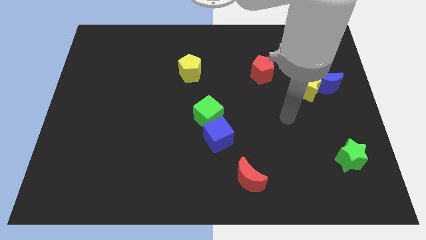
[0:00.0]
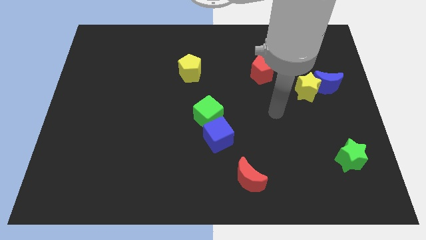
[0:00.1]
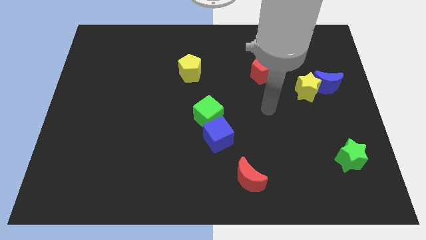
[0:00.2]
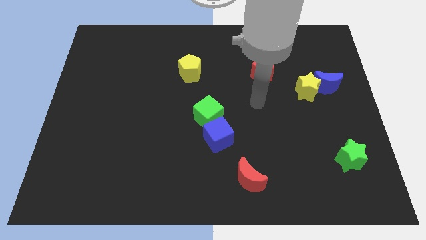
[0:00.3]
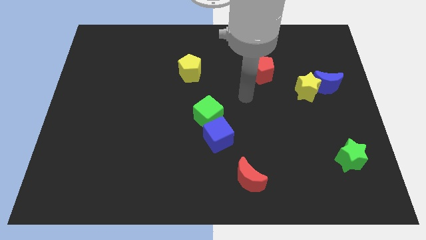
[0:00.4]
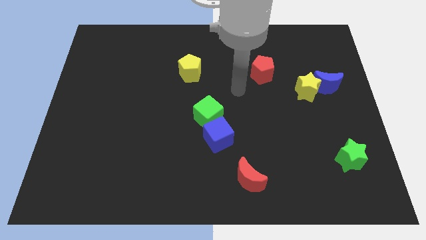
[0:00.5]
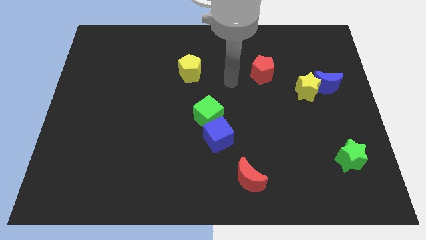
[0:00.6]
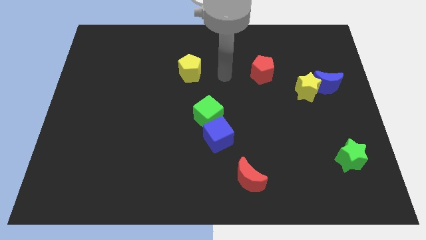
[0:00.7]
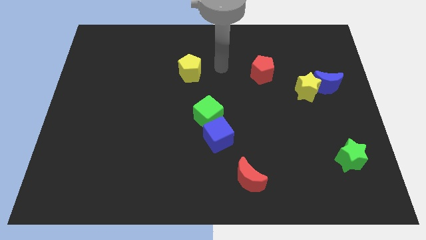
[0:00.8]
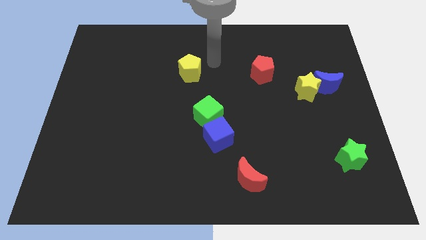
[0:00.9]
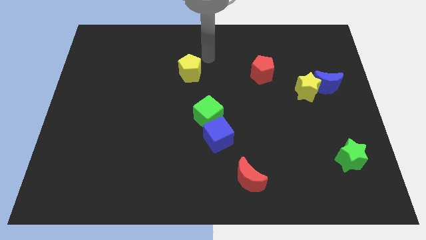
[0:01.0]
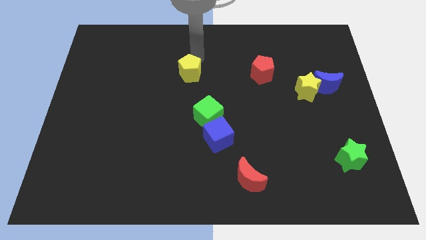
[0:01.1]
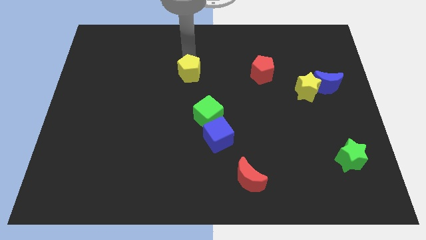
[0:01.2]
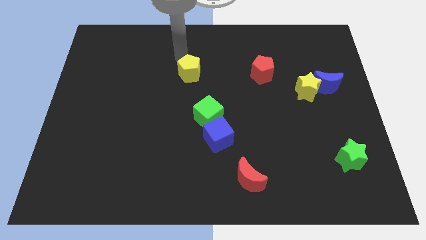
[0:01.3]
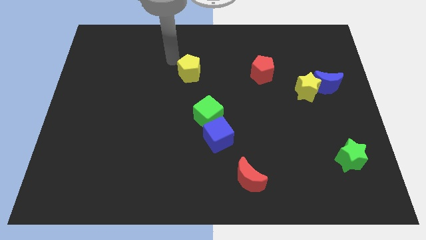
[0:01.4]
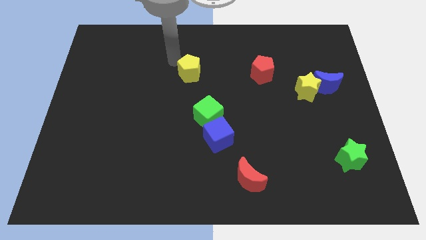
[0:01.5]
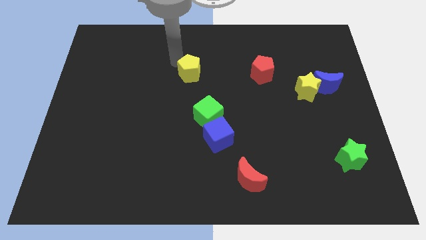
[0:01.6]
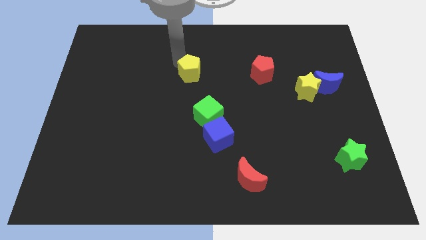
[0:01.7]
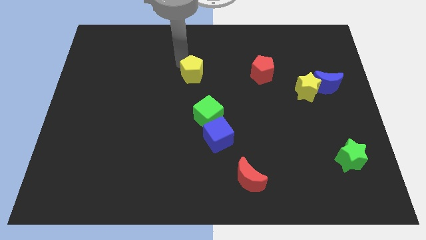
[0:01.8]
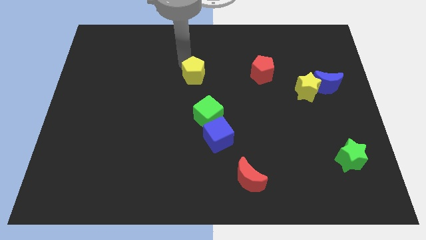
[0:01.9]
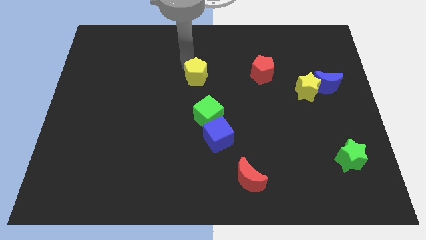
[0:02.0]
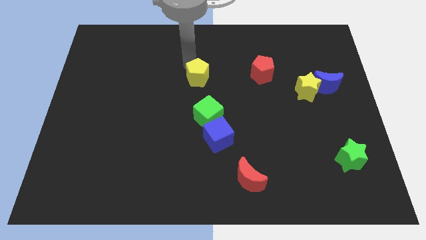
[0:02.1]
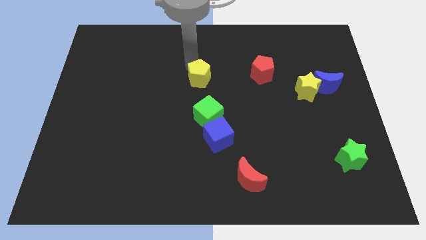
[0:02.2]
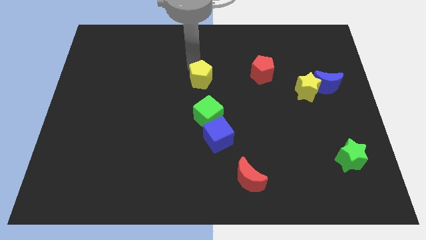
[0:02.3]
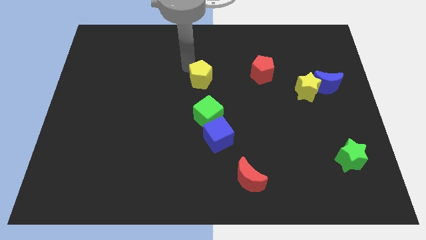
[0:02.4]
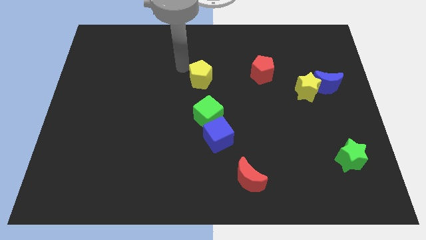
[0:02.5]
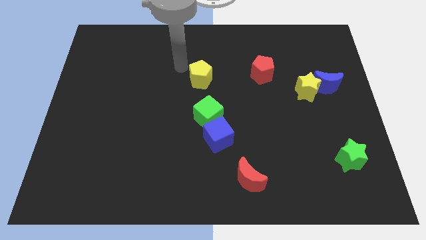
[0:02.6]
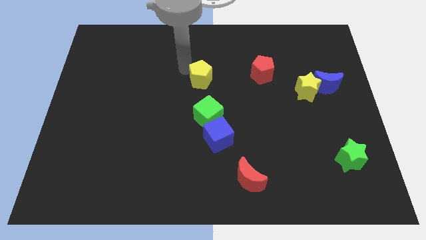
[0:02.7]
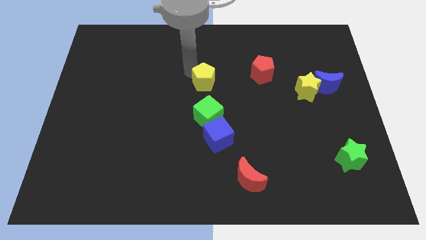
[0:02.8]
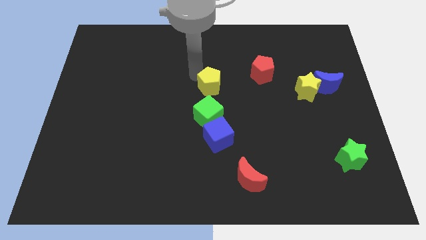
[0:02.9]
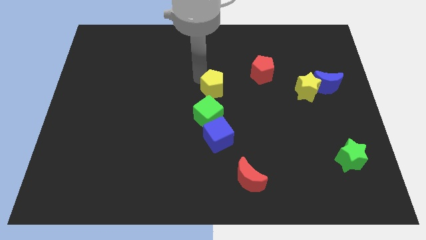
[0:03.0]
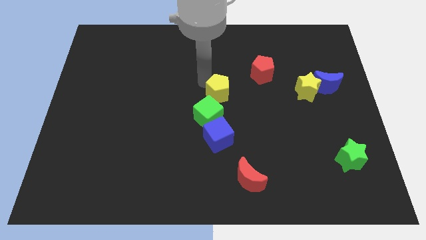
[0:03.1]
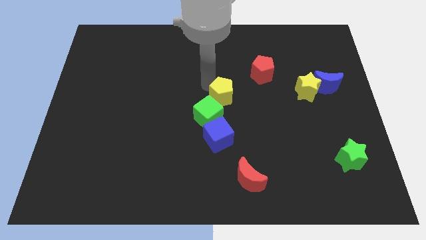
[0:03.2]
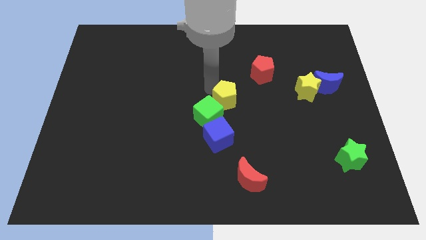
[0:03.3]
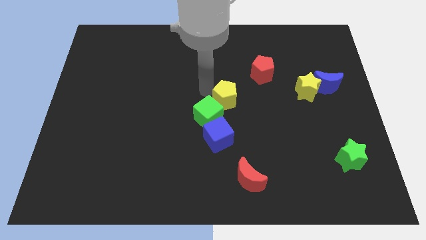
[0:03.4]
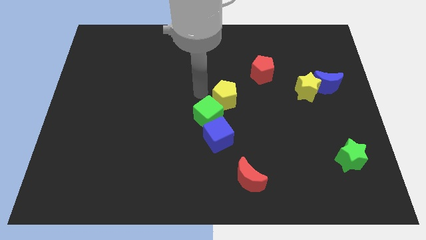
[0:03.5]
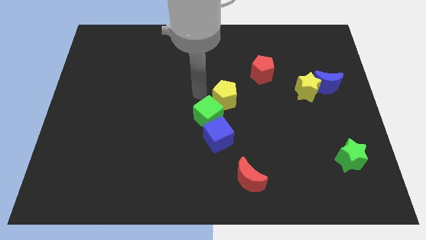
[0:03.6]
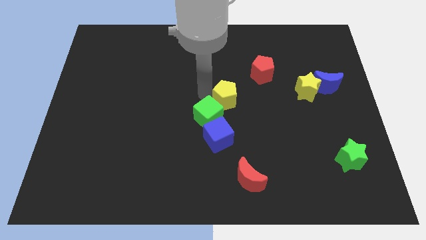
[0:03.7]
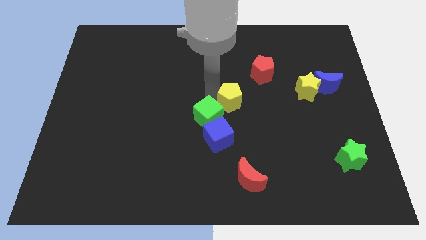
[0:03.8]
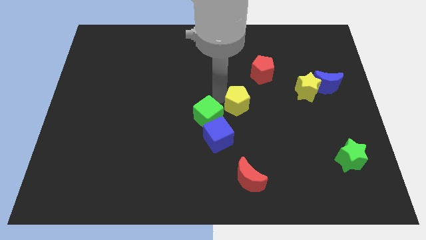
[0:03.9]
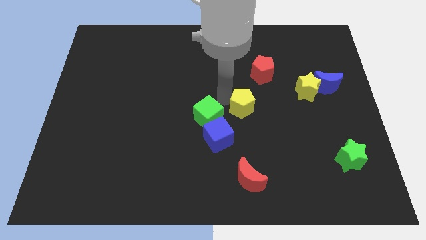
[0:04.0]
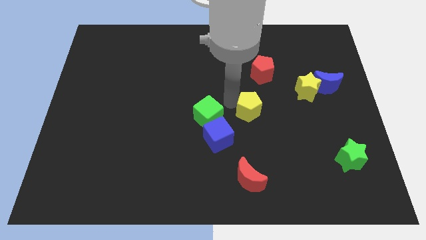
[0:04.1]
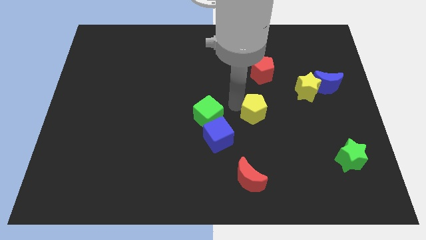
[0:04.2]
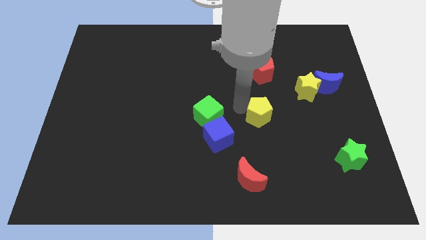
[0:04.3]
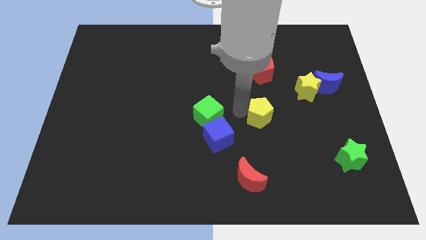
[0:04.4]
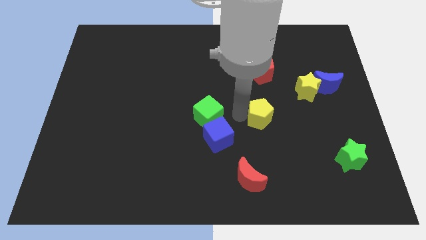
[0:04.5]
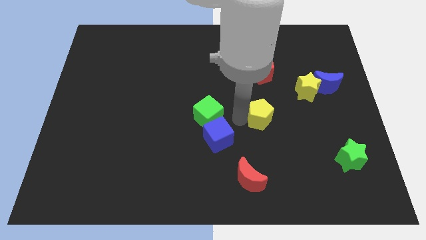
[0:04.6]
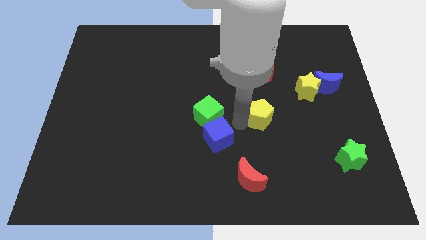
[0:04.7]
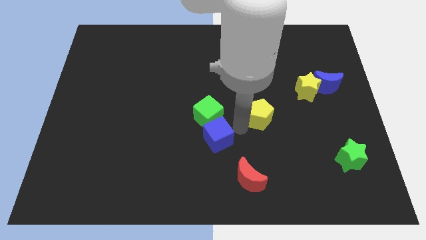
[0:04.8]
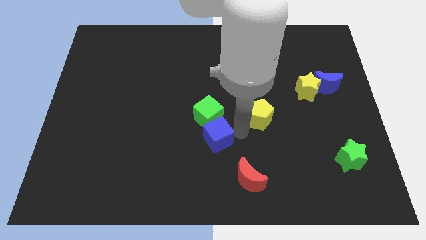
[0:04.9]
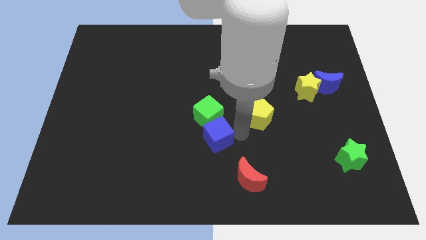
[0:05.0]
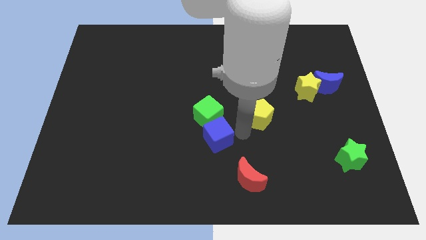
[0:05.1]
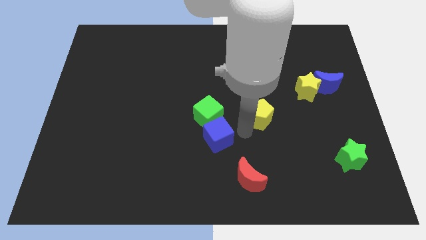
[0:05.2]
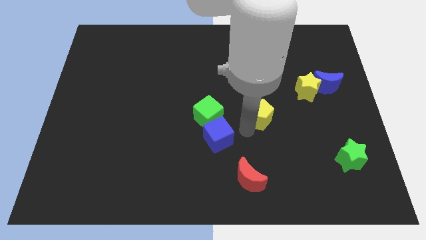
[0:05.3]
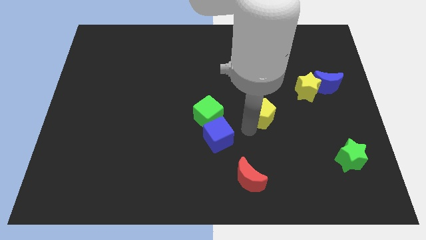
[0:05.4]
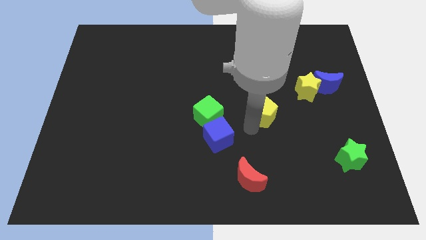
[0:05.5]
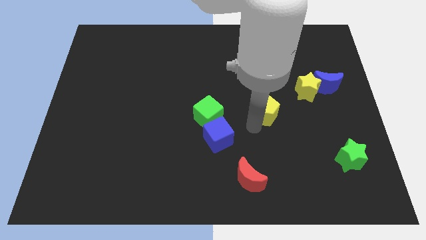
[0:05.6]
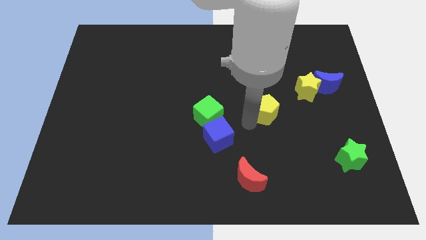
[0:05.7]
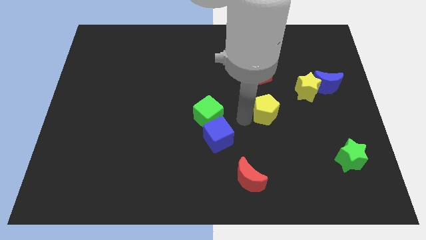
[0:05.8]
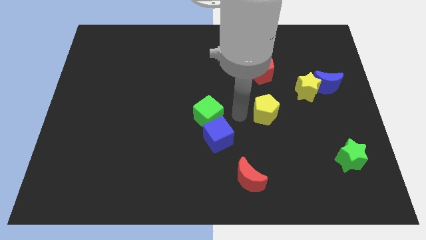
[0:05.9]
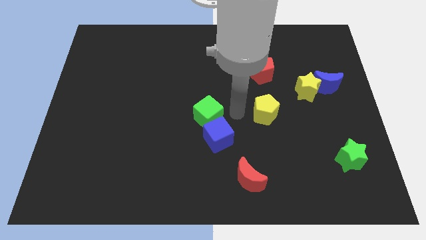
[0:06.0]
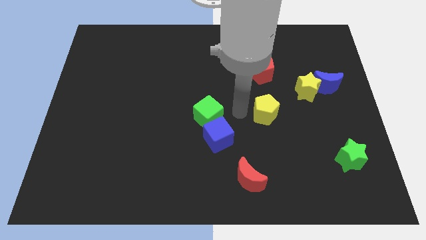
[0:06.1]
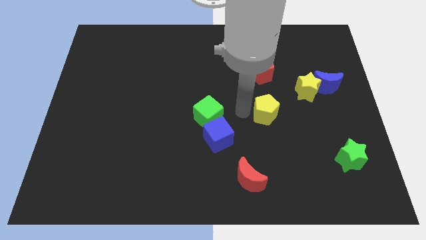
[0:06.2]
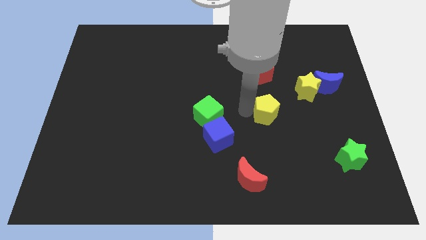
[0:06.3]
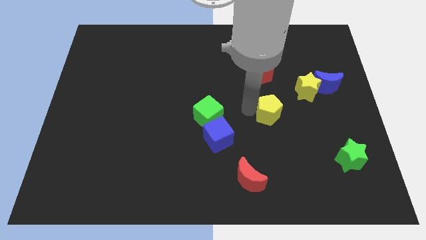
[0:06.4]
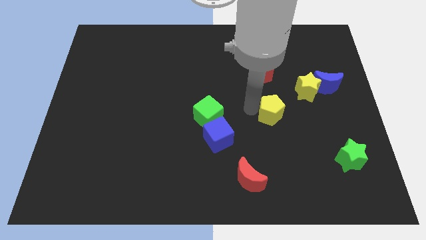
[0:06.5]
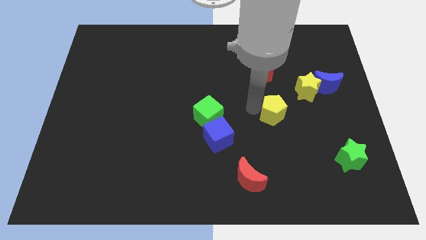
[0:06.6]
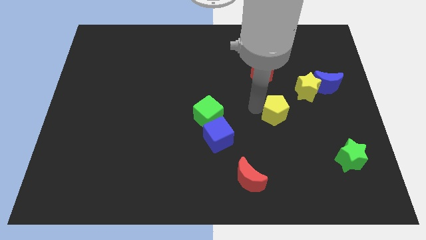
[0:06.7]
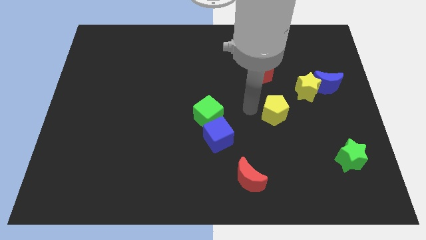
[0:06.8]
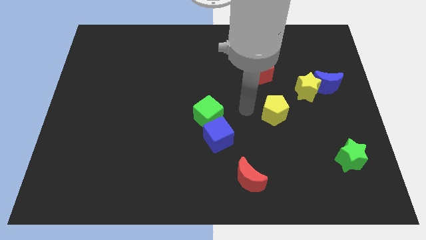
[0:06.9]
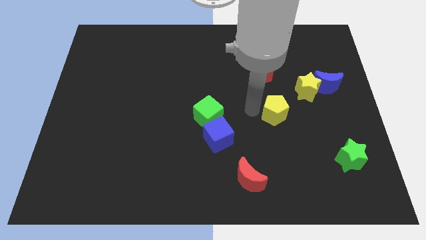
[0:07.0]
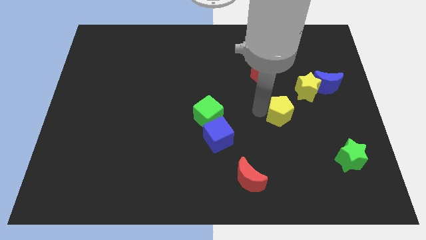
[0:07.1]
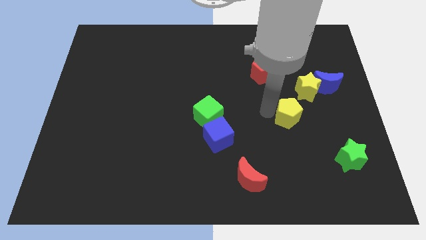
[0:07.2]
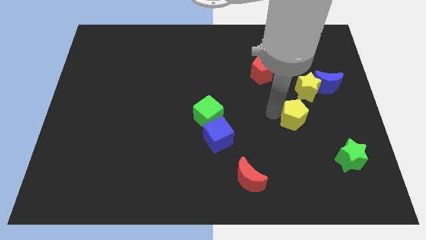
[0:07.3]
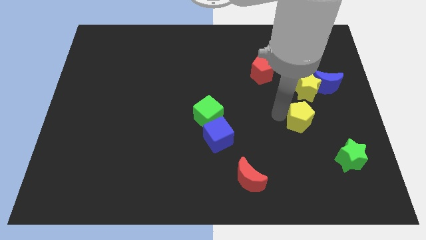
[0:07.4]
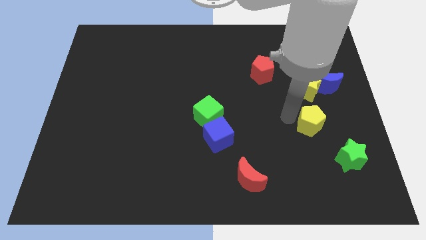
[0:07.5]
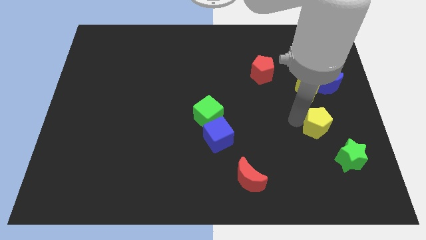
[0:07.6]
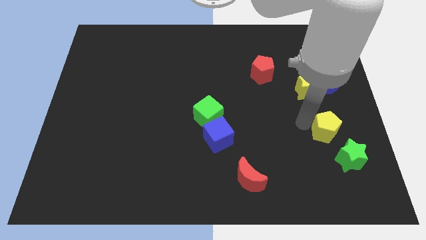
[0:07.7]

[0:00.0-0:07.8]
put the yellow pentagon above the green star

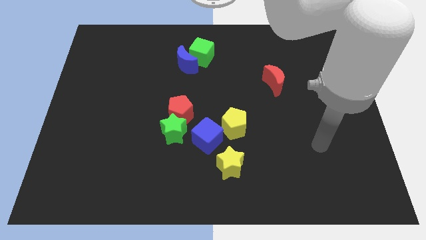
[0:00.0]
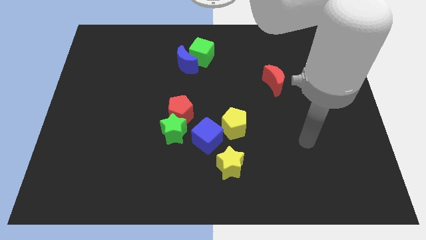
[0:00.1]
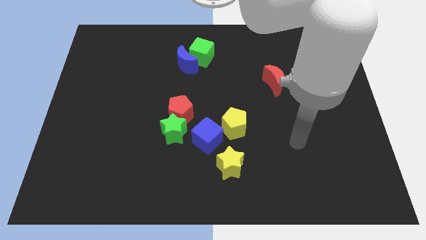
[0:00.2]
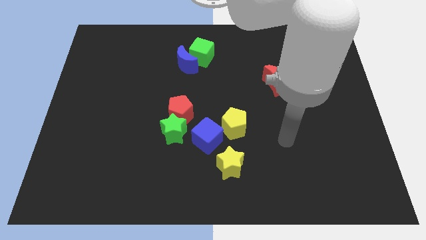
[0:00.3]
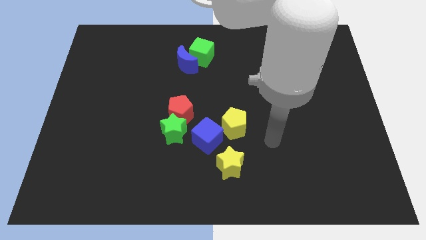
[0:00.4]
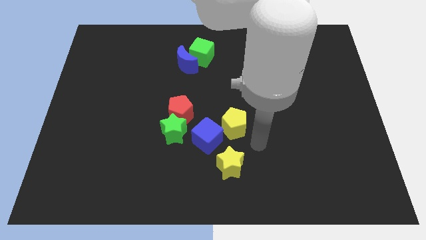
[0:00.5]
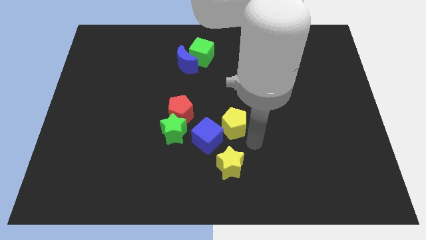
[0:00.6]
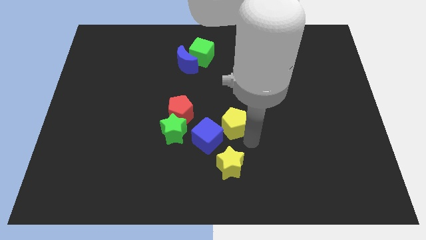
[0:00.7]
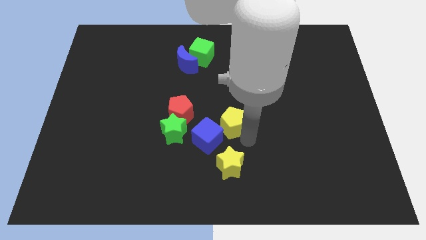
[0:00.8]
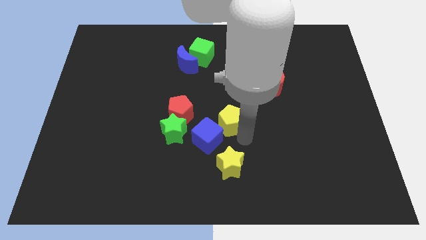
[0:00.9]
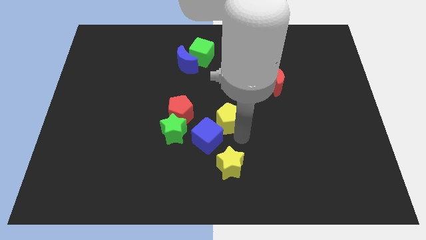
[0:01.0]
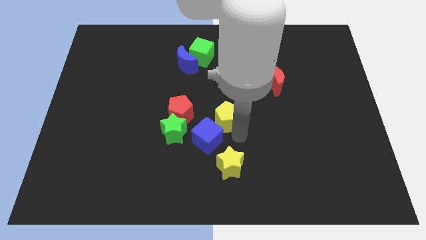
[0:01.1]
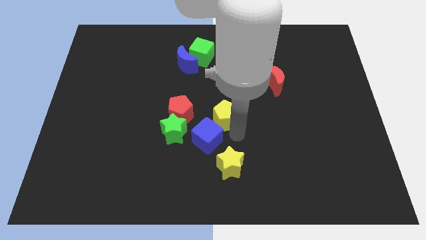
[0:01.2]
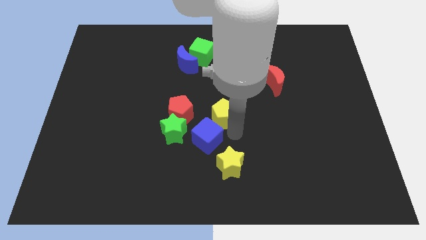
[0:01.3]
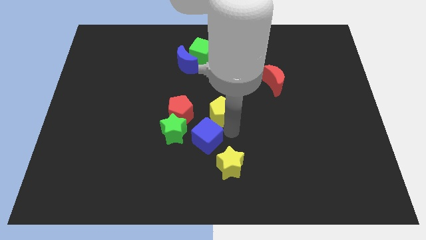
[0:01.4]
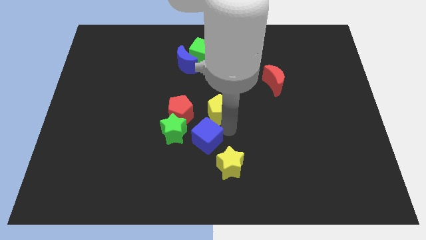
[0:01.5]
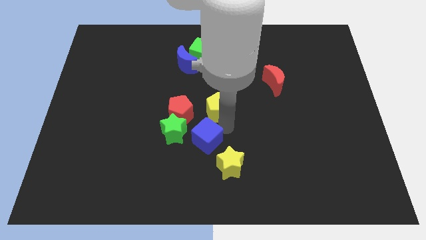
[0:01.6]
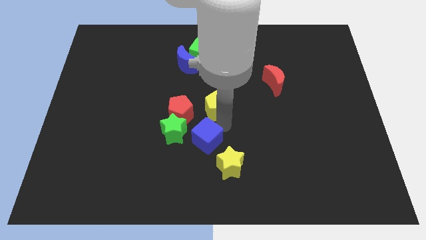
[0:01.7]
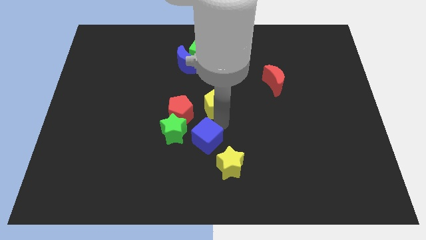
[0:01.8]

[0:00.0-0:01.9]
slide the yellow pentagon to the top right side of the red pentagon
